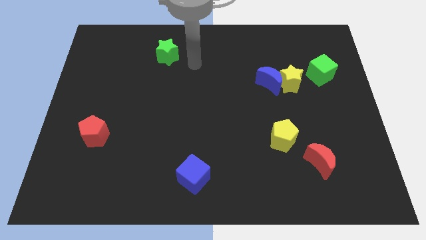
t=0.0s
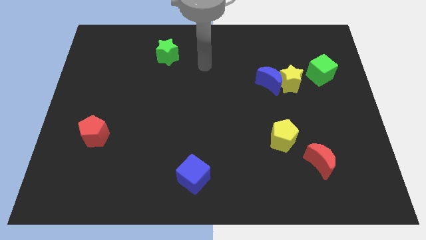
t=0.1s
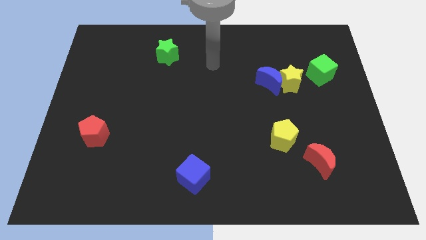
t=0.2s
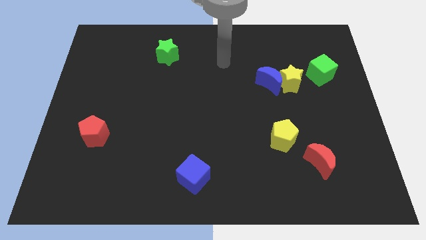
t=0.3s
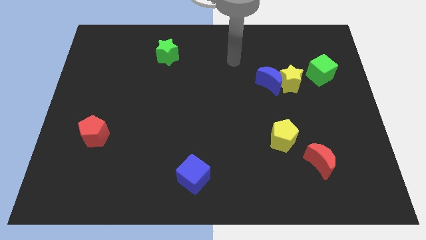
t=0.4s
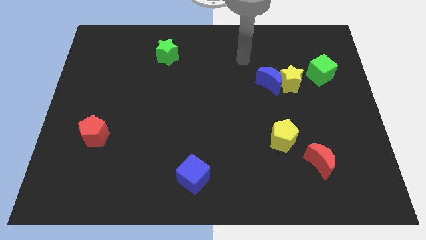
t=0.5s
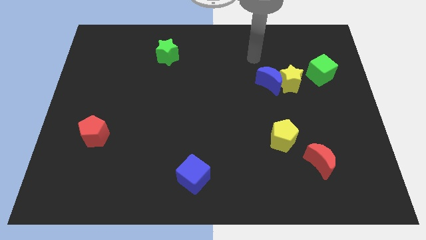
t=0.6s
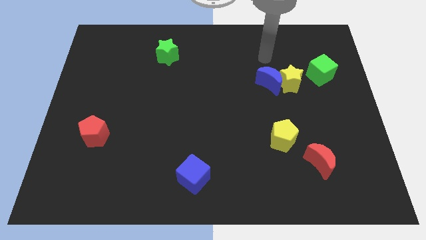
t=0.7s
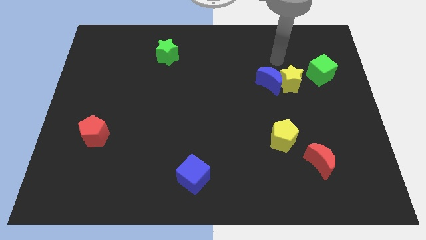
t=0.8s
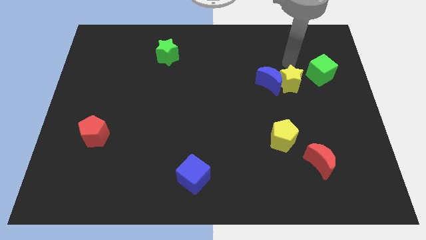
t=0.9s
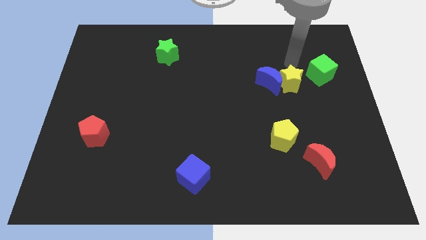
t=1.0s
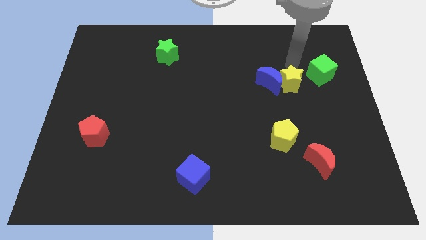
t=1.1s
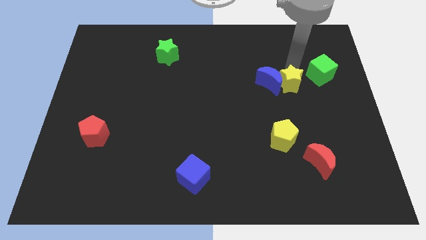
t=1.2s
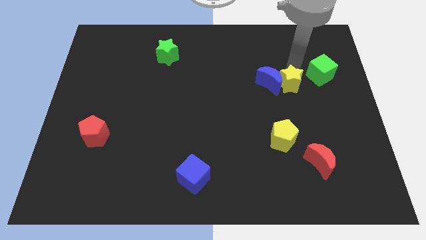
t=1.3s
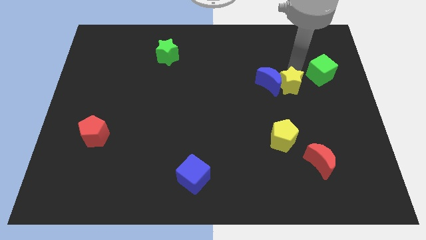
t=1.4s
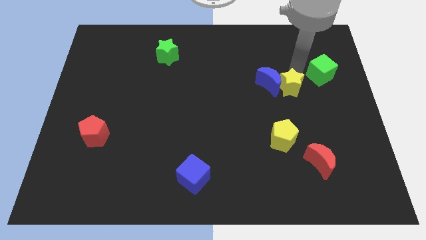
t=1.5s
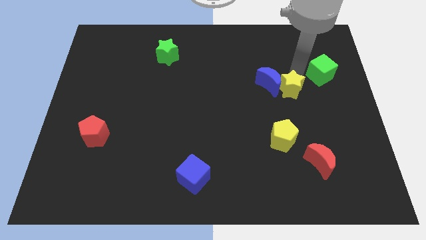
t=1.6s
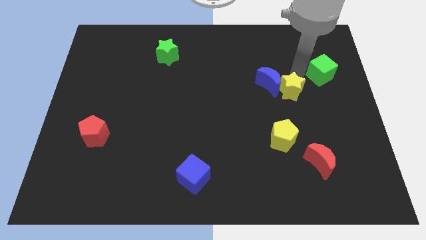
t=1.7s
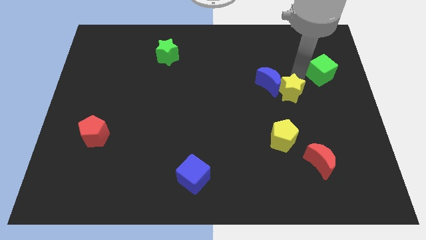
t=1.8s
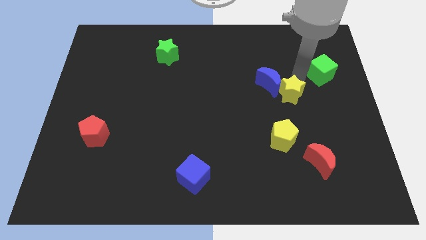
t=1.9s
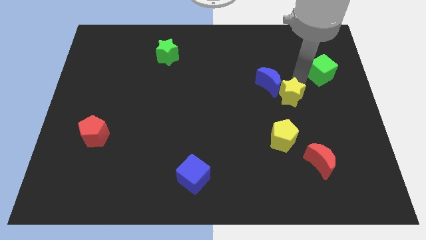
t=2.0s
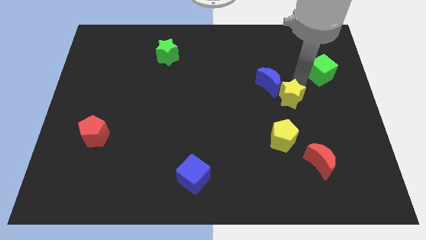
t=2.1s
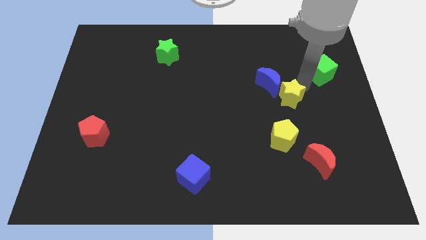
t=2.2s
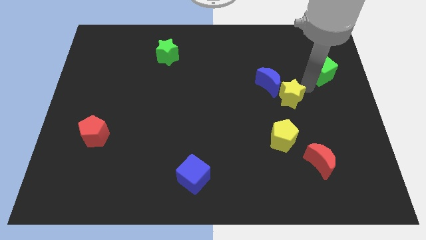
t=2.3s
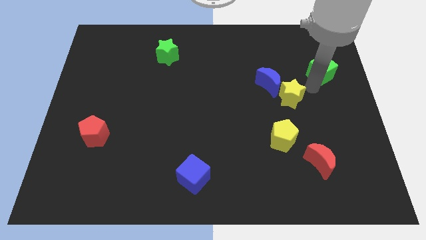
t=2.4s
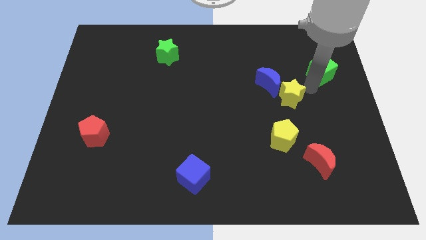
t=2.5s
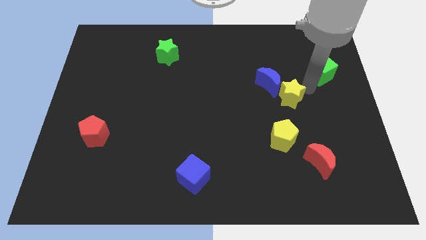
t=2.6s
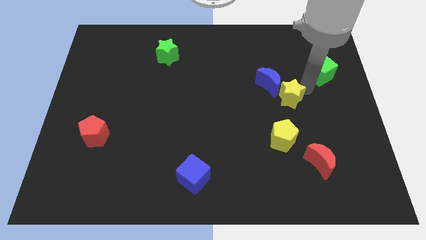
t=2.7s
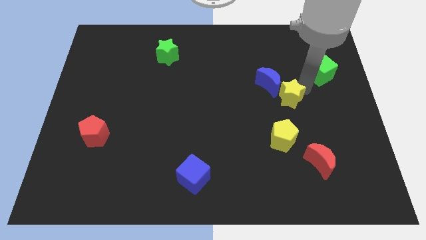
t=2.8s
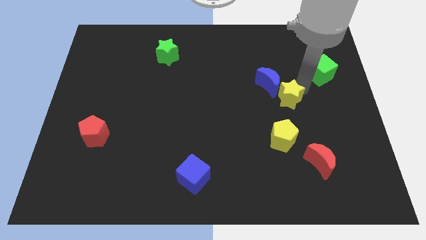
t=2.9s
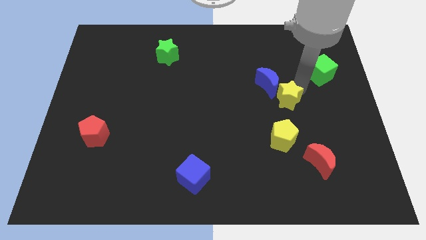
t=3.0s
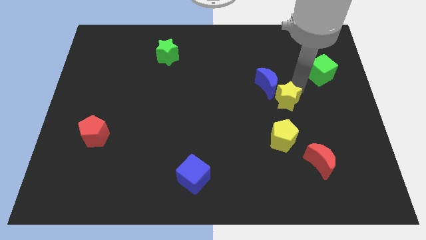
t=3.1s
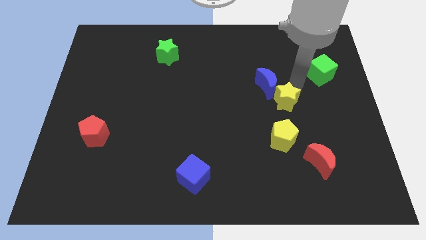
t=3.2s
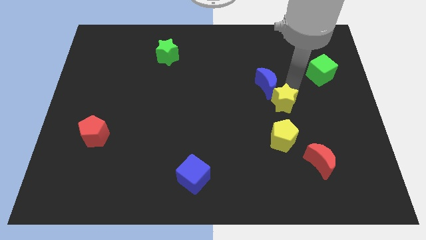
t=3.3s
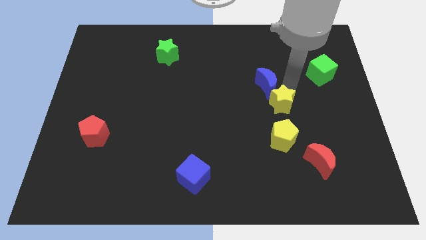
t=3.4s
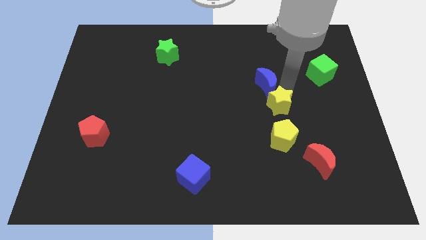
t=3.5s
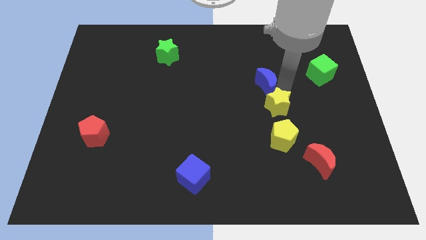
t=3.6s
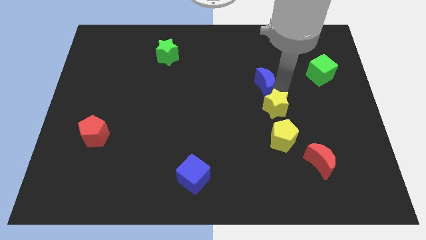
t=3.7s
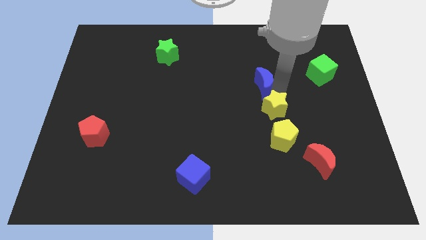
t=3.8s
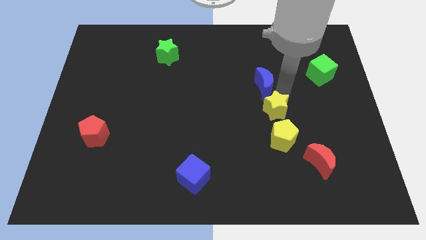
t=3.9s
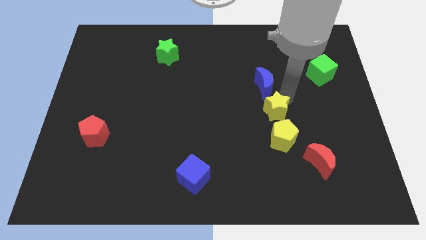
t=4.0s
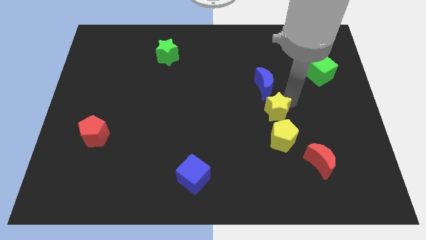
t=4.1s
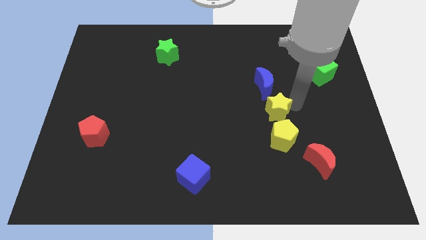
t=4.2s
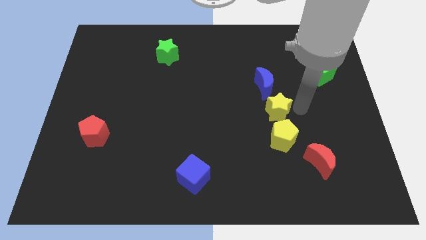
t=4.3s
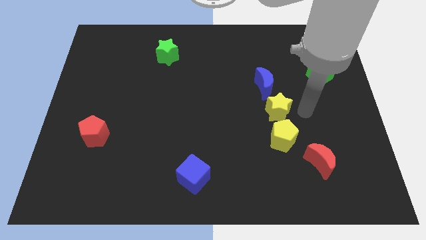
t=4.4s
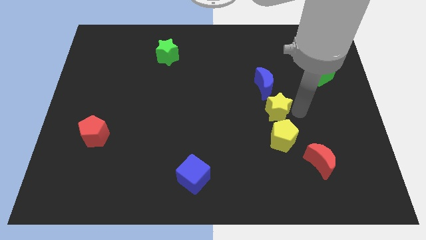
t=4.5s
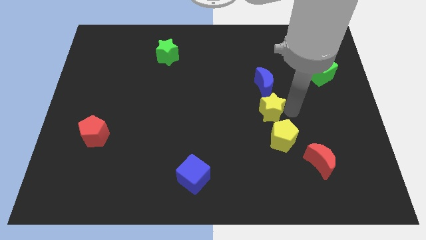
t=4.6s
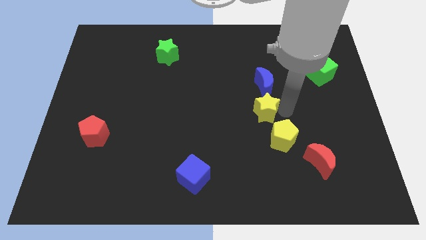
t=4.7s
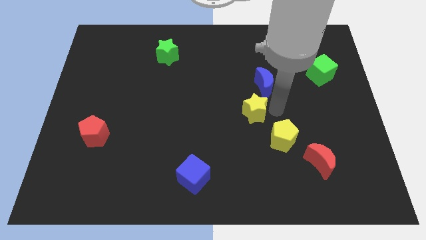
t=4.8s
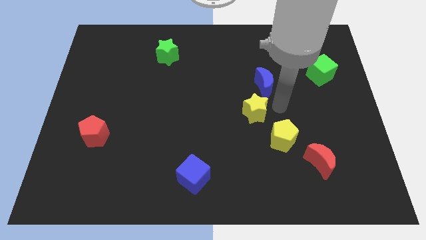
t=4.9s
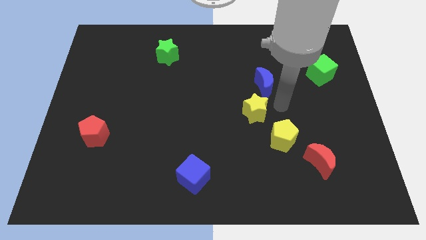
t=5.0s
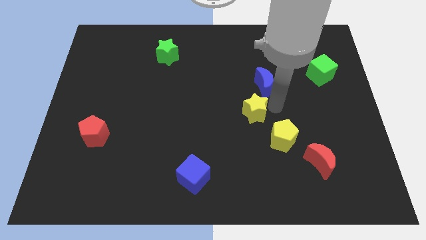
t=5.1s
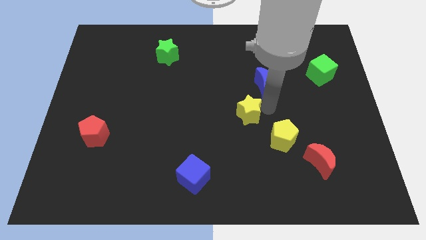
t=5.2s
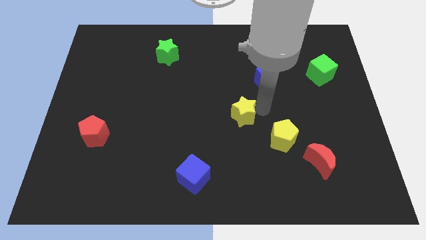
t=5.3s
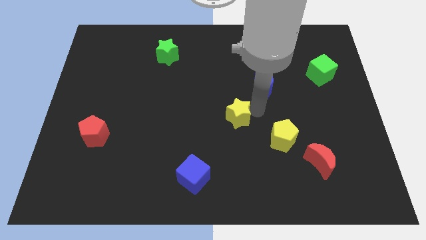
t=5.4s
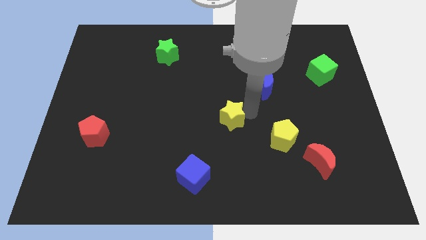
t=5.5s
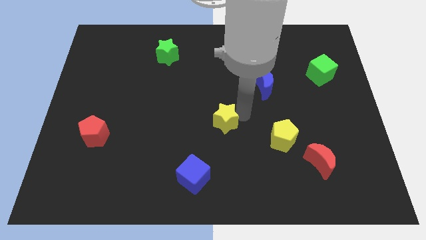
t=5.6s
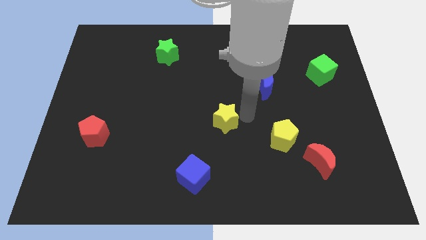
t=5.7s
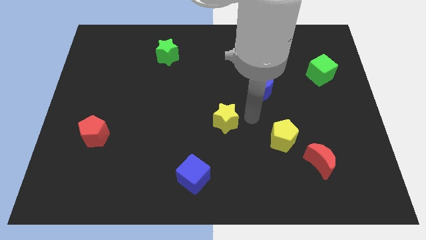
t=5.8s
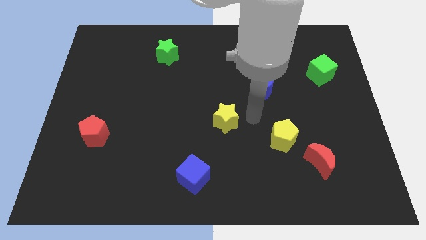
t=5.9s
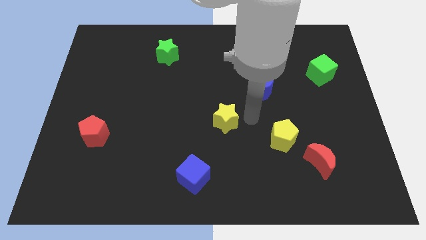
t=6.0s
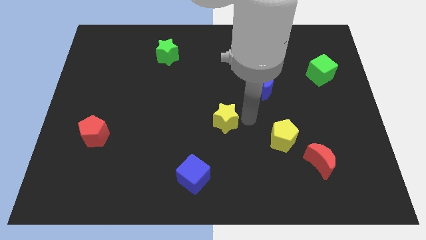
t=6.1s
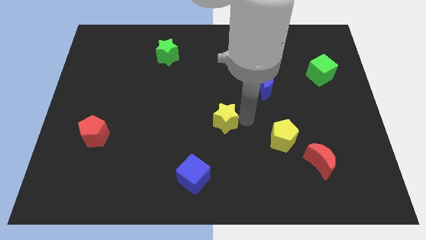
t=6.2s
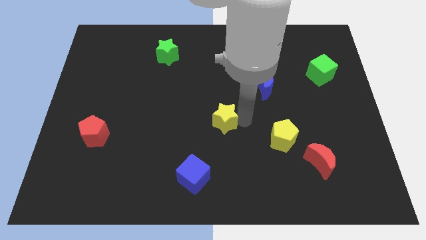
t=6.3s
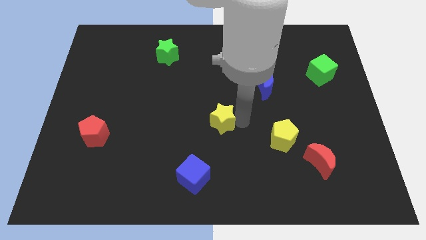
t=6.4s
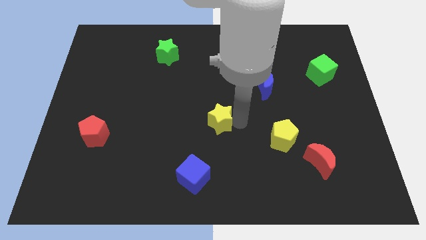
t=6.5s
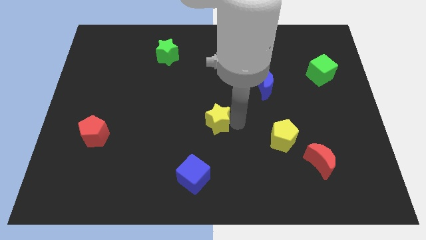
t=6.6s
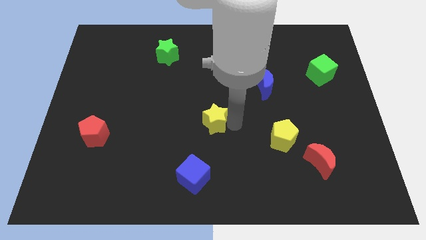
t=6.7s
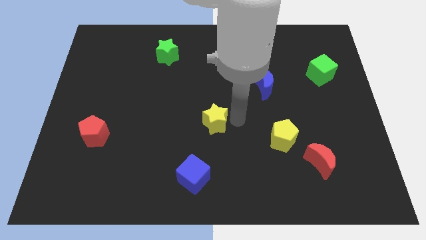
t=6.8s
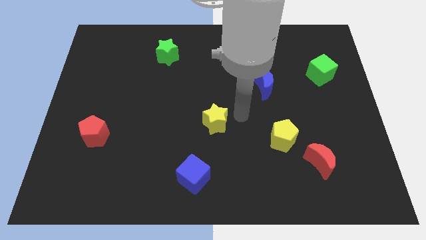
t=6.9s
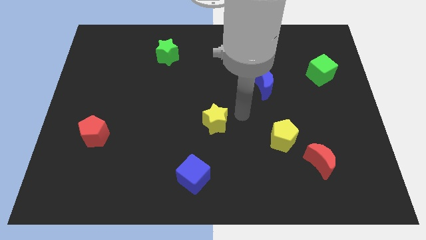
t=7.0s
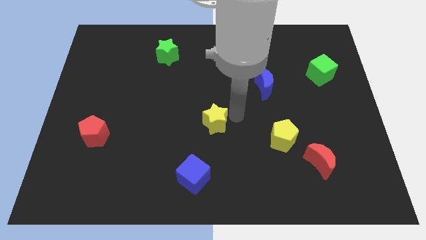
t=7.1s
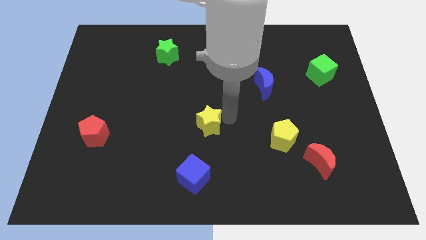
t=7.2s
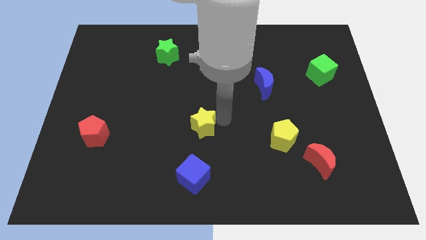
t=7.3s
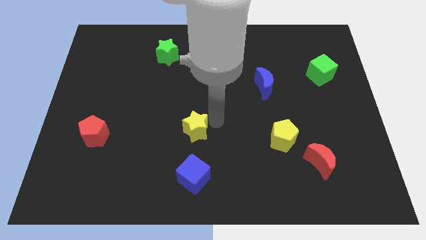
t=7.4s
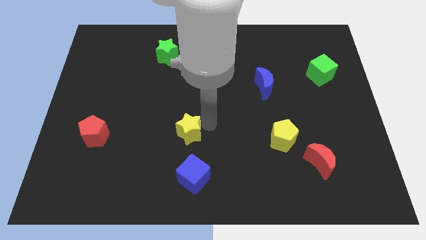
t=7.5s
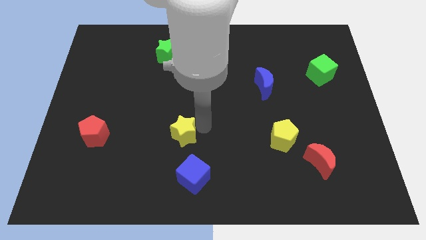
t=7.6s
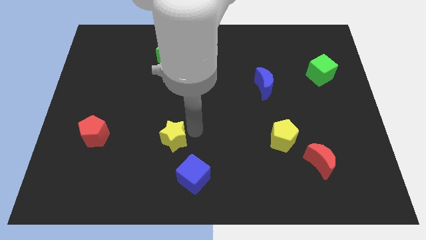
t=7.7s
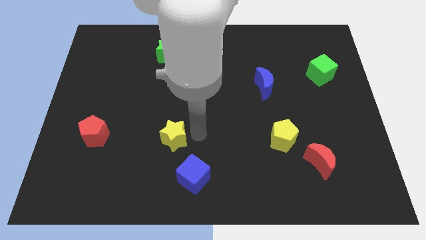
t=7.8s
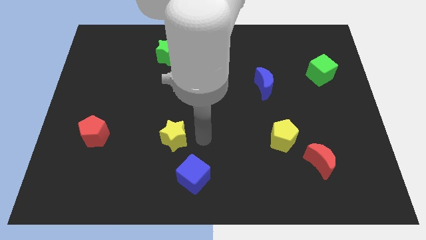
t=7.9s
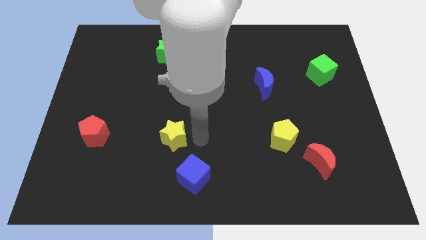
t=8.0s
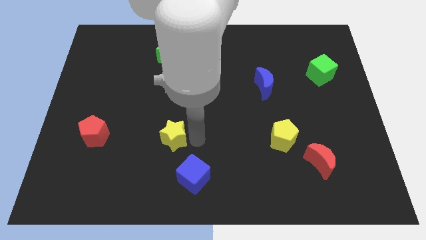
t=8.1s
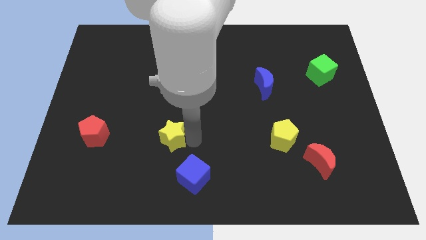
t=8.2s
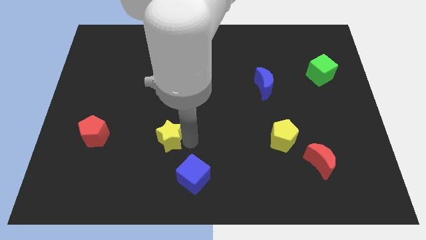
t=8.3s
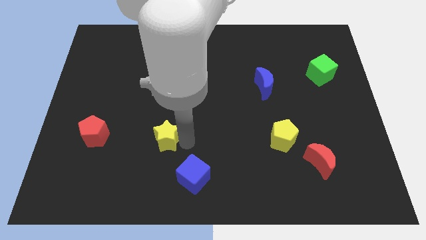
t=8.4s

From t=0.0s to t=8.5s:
slide the yellow star to the right of the red pentagon
